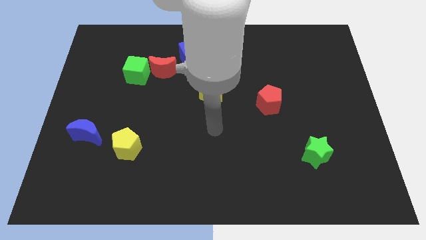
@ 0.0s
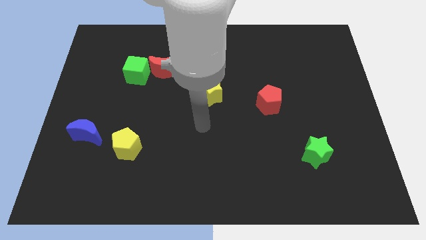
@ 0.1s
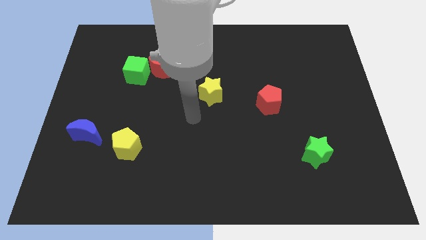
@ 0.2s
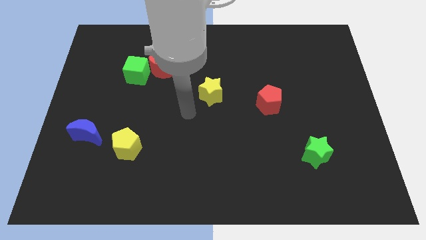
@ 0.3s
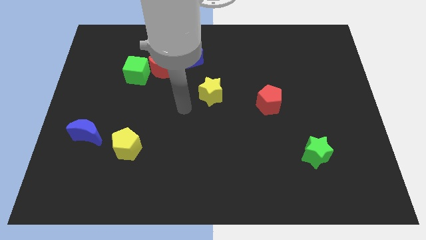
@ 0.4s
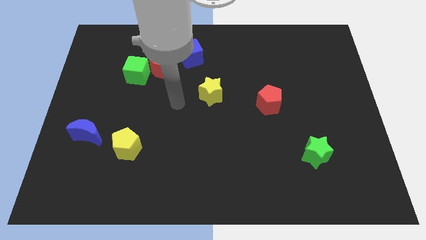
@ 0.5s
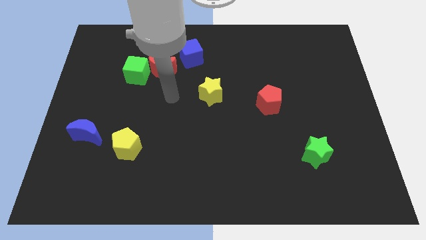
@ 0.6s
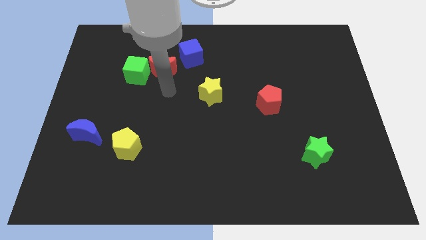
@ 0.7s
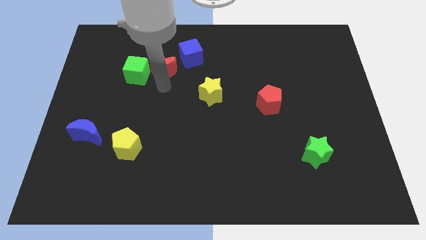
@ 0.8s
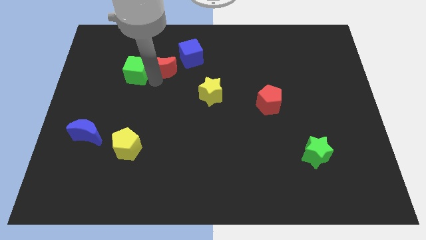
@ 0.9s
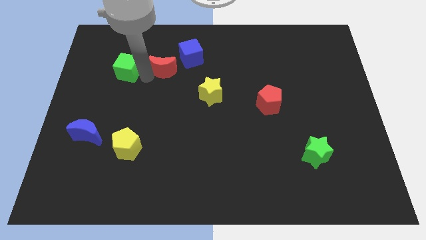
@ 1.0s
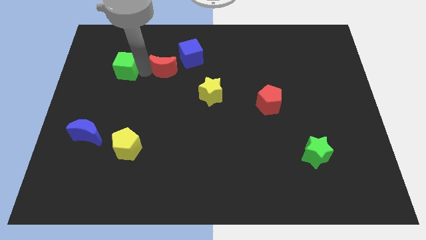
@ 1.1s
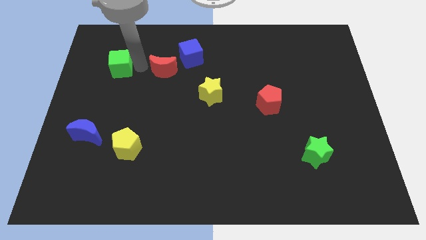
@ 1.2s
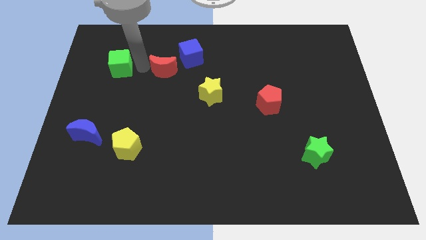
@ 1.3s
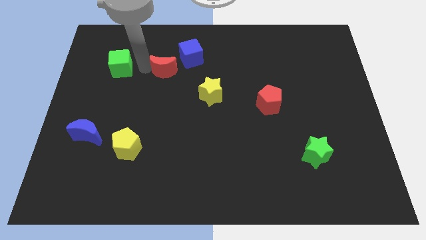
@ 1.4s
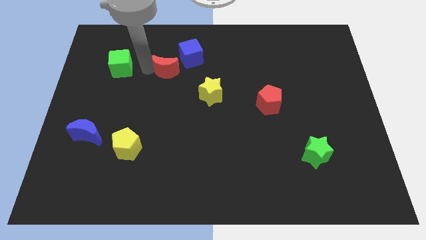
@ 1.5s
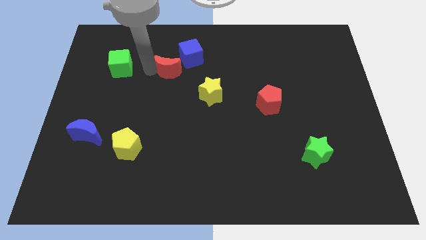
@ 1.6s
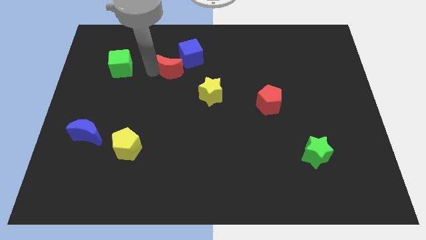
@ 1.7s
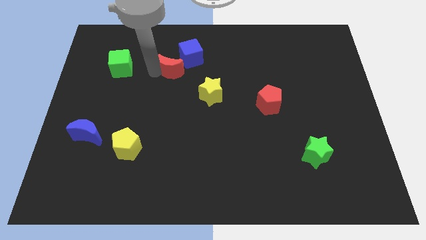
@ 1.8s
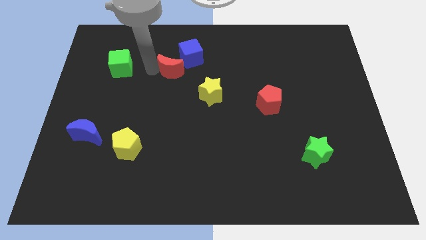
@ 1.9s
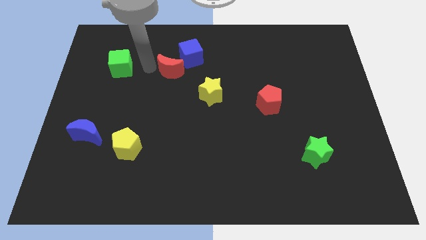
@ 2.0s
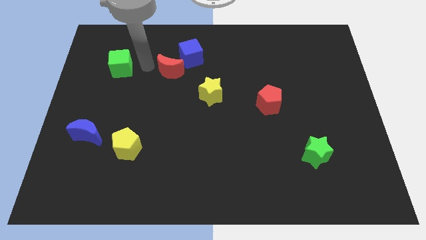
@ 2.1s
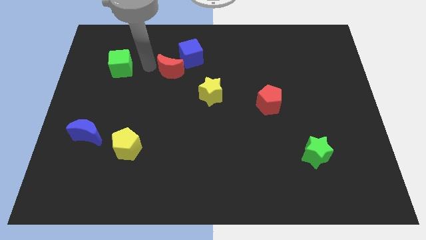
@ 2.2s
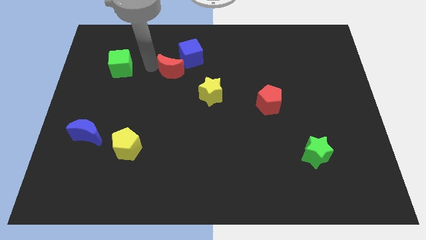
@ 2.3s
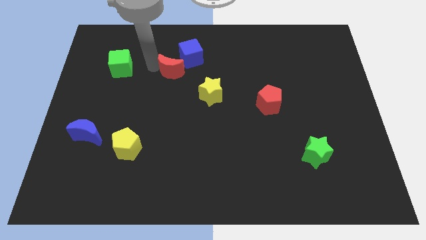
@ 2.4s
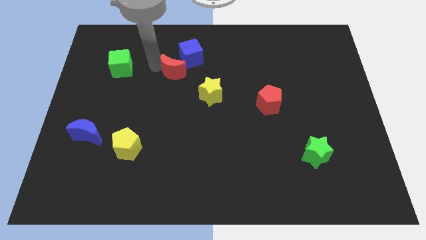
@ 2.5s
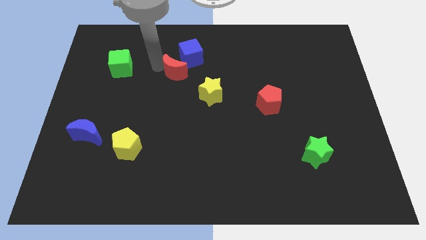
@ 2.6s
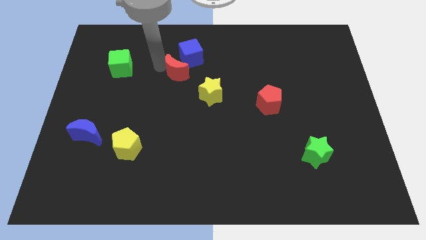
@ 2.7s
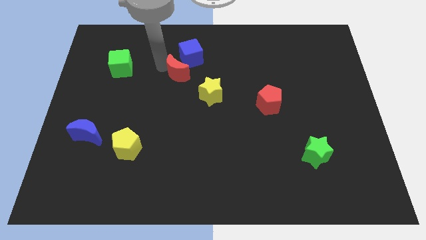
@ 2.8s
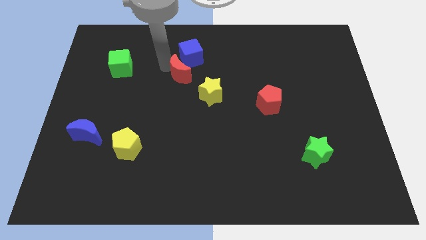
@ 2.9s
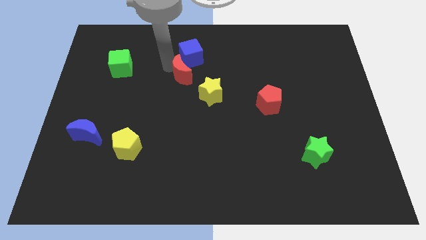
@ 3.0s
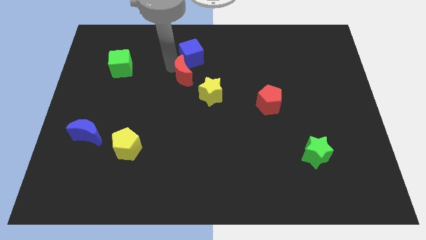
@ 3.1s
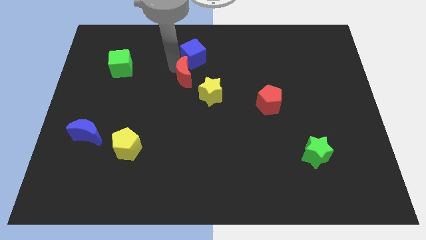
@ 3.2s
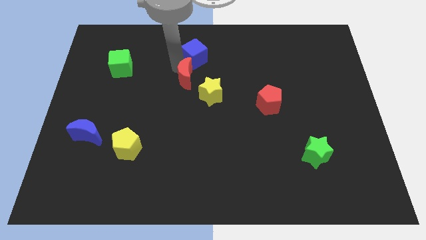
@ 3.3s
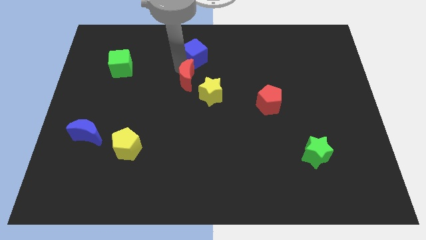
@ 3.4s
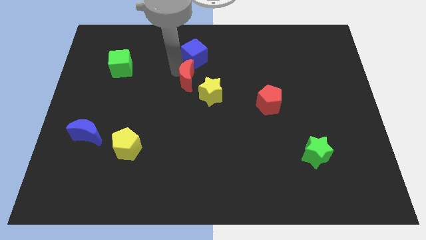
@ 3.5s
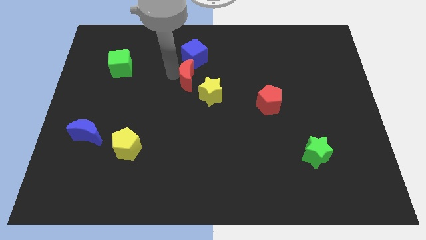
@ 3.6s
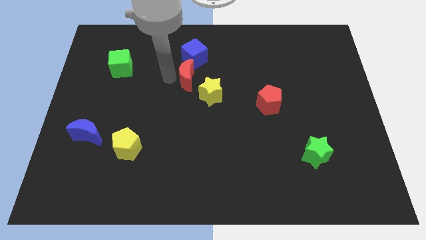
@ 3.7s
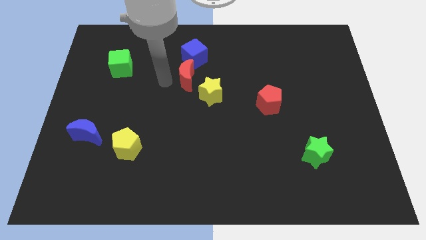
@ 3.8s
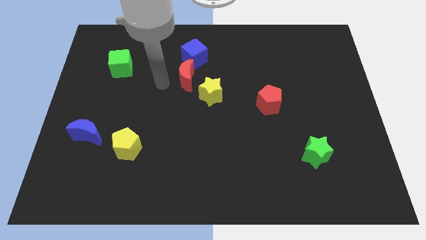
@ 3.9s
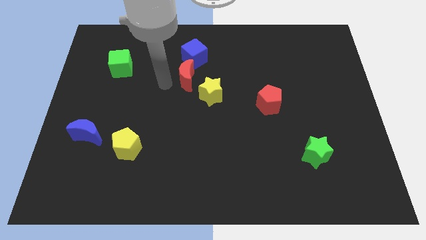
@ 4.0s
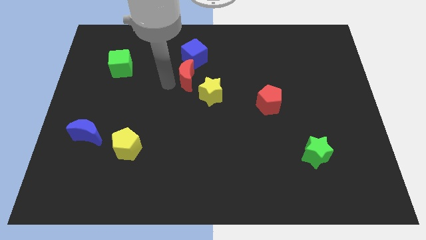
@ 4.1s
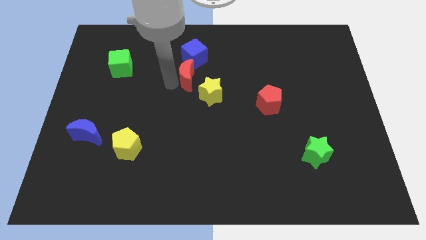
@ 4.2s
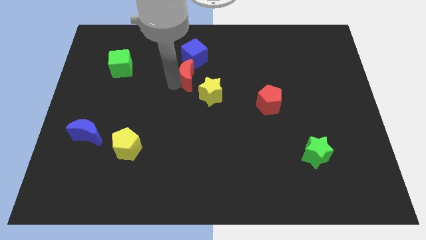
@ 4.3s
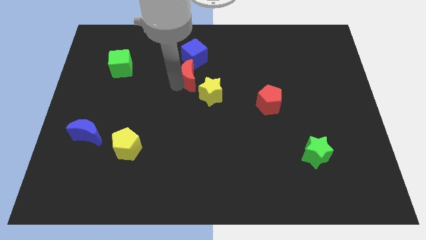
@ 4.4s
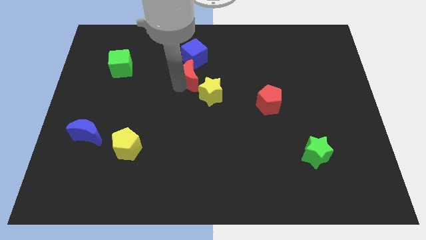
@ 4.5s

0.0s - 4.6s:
slightly slide the red moon to the right

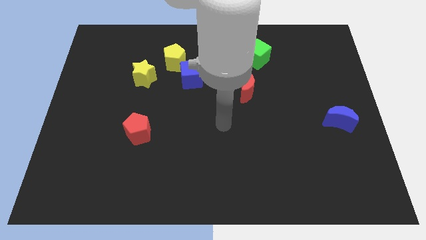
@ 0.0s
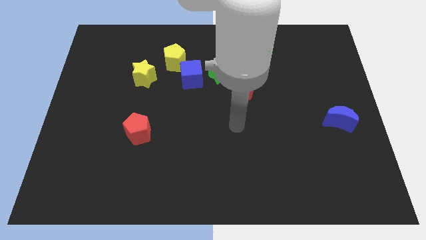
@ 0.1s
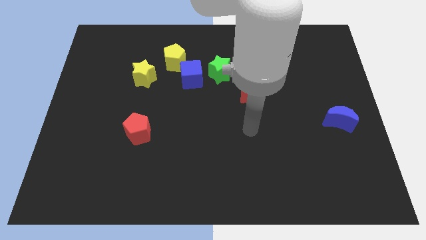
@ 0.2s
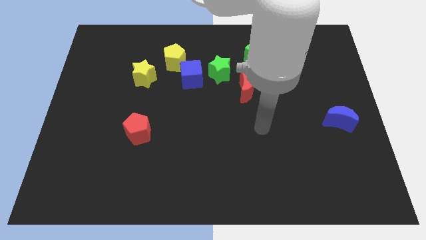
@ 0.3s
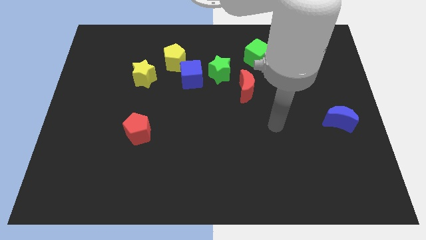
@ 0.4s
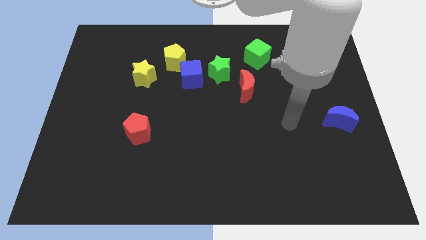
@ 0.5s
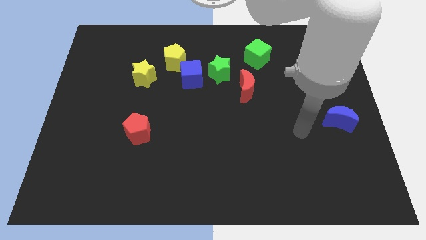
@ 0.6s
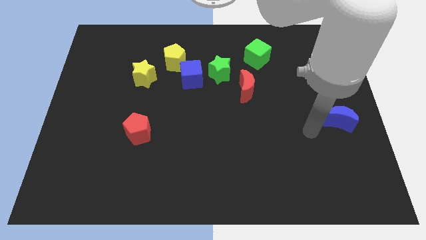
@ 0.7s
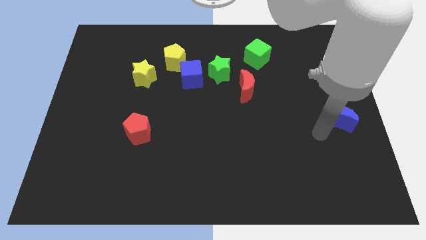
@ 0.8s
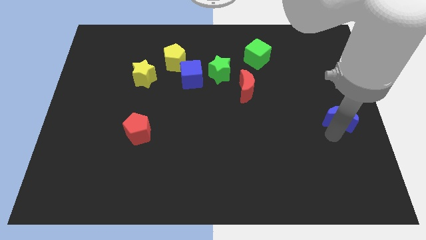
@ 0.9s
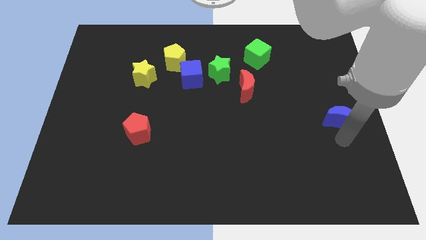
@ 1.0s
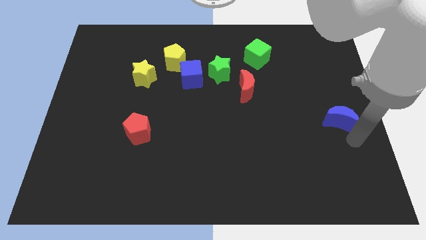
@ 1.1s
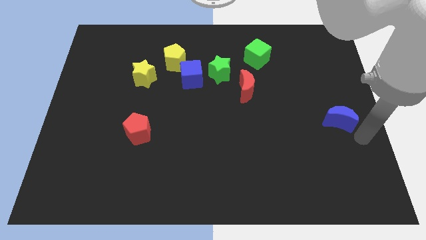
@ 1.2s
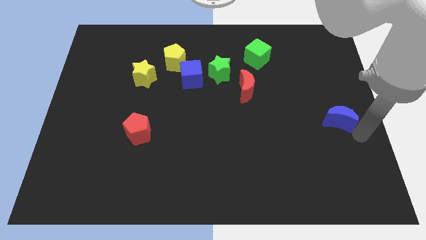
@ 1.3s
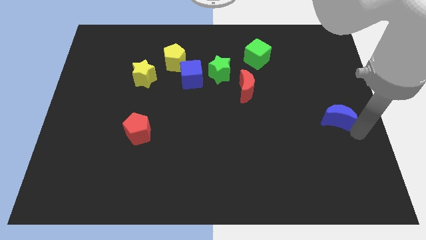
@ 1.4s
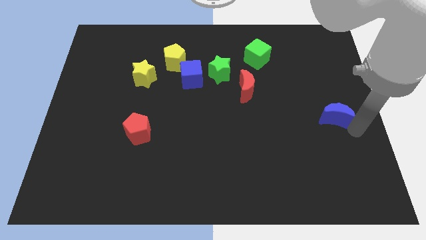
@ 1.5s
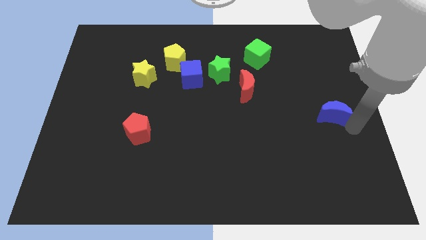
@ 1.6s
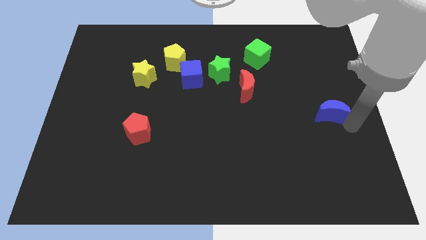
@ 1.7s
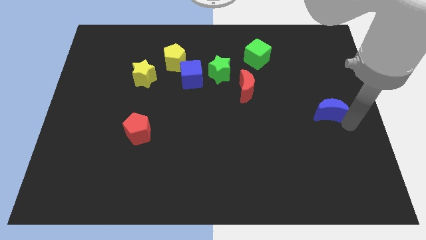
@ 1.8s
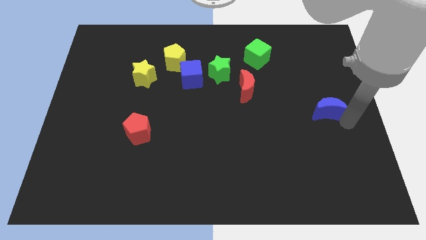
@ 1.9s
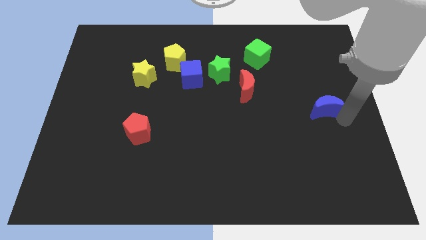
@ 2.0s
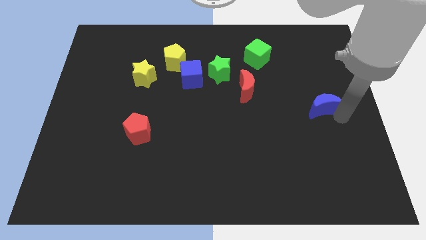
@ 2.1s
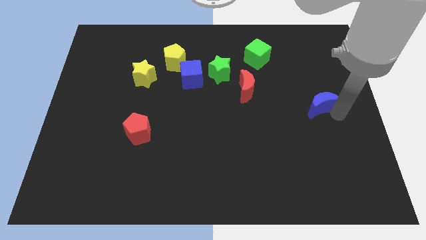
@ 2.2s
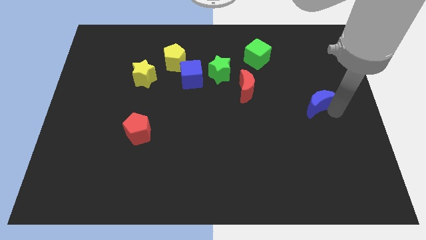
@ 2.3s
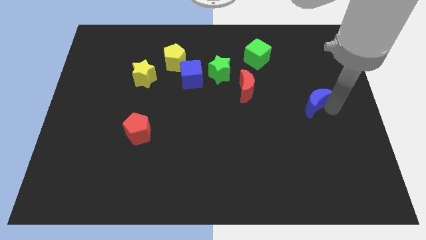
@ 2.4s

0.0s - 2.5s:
slide the blue moon up and to the left diagonally a bit

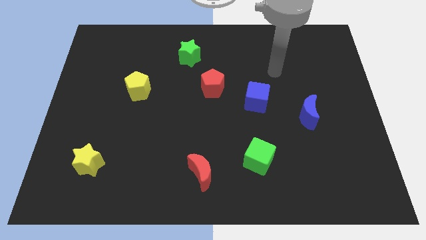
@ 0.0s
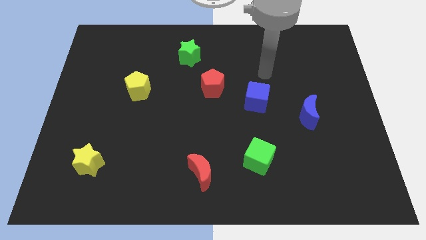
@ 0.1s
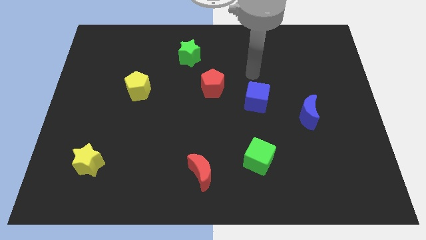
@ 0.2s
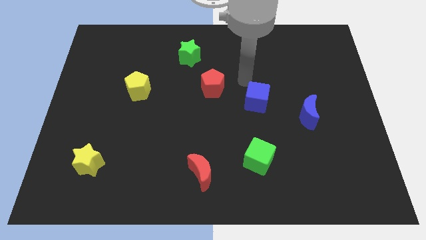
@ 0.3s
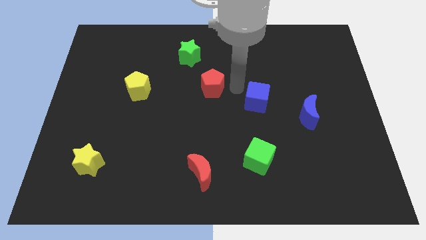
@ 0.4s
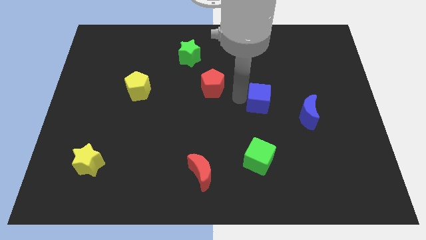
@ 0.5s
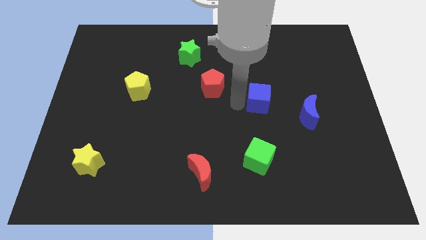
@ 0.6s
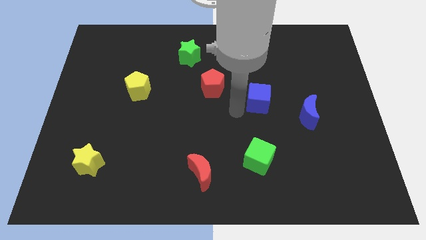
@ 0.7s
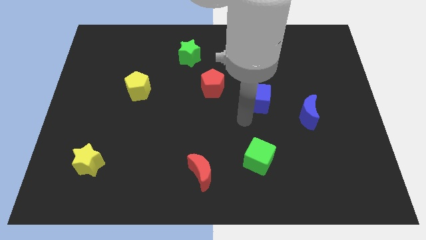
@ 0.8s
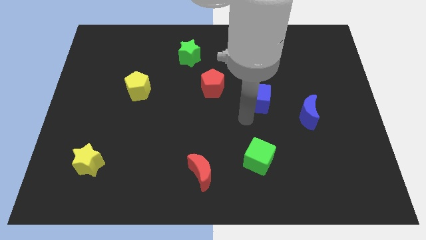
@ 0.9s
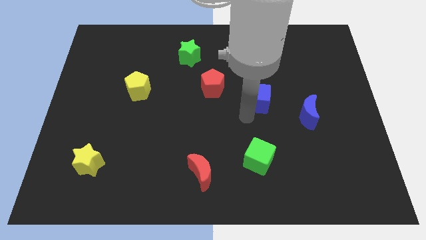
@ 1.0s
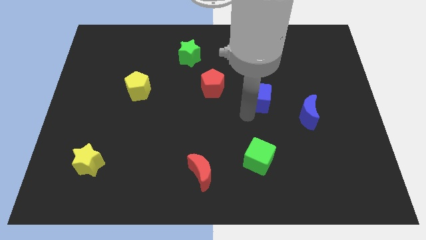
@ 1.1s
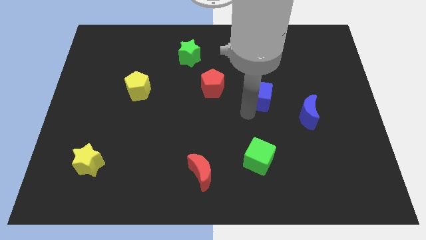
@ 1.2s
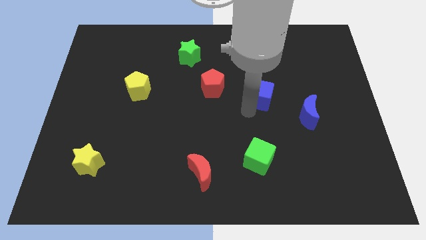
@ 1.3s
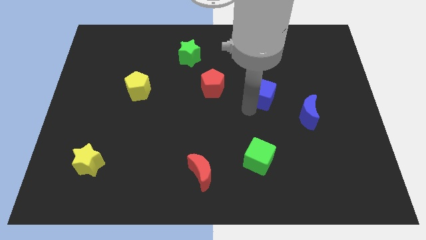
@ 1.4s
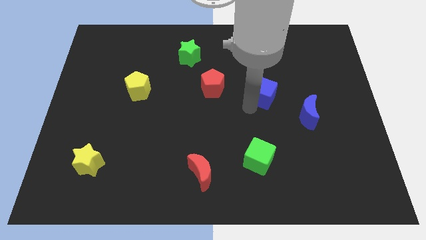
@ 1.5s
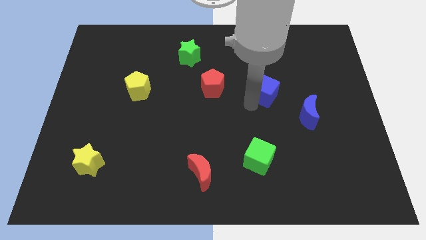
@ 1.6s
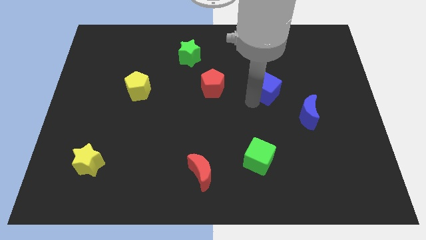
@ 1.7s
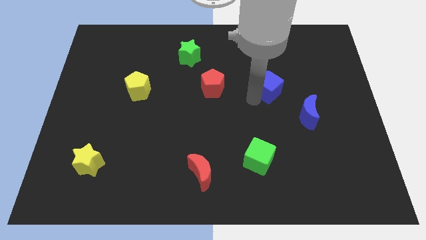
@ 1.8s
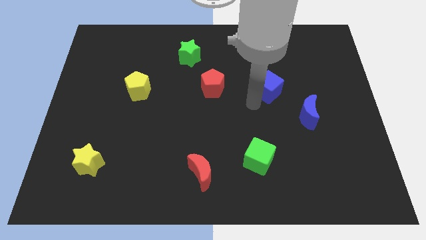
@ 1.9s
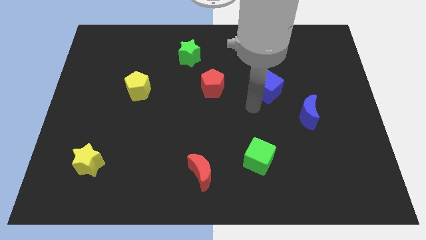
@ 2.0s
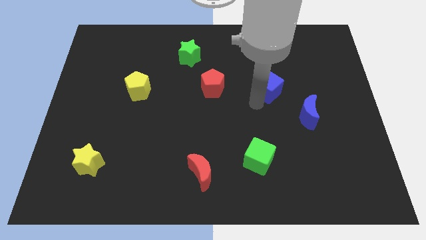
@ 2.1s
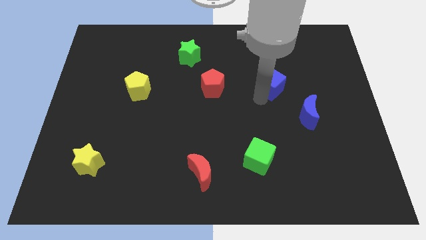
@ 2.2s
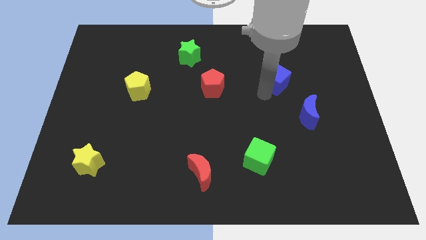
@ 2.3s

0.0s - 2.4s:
slide the blue cube upwards and right slightly
